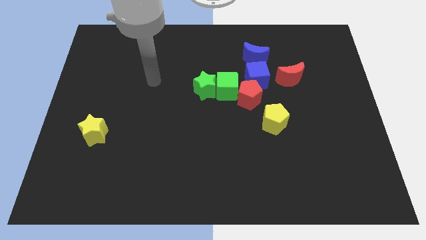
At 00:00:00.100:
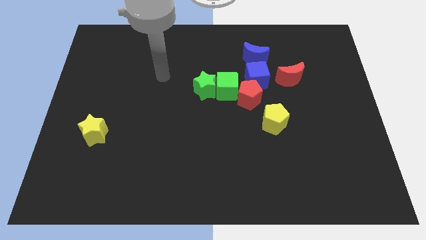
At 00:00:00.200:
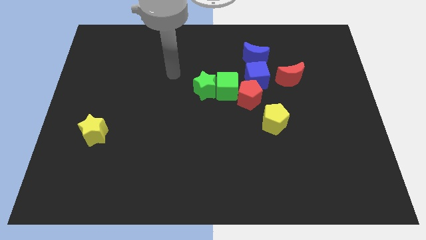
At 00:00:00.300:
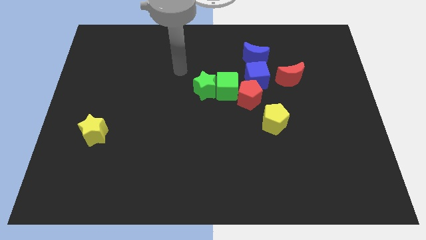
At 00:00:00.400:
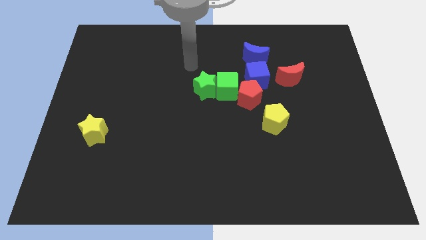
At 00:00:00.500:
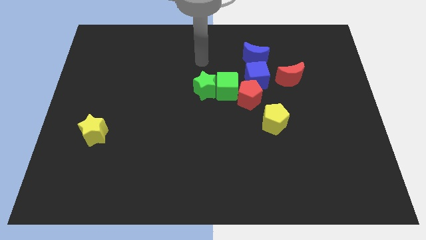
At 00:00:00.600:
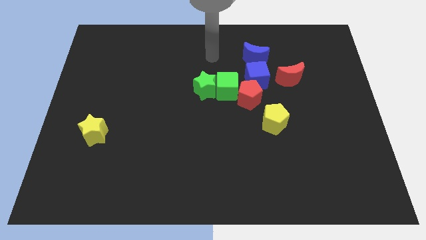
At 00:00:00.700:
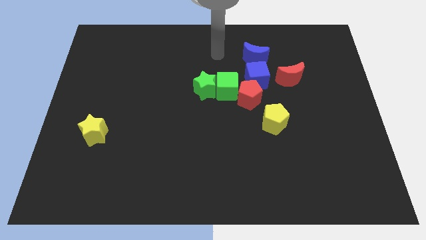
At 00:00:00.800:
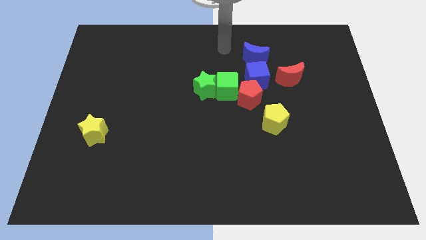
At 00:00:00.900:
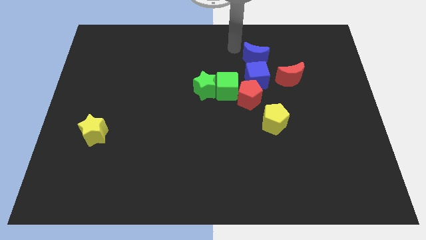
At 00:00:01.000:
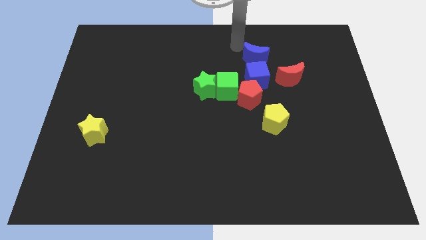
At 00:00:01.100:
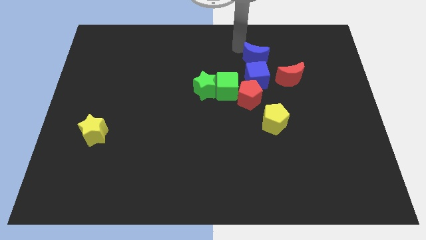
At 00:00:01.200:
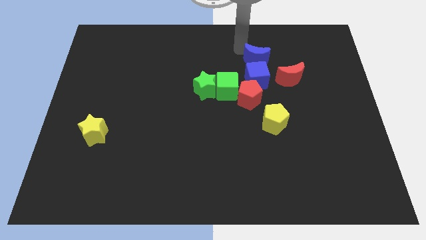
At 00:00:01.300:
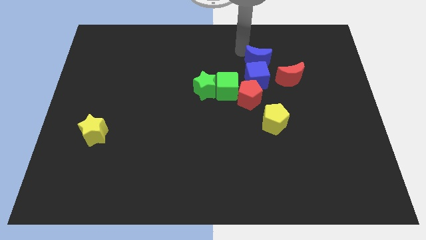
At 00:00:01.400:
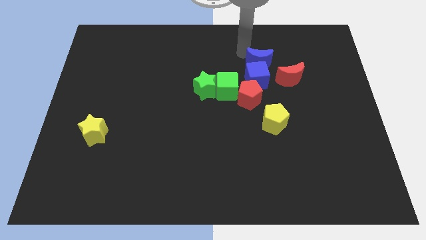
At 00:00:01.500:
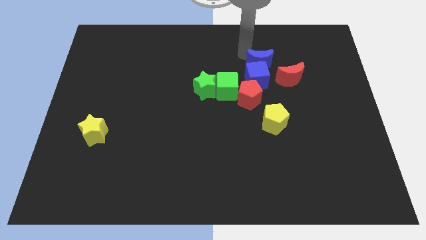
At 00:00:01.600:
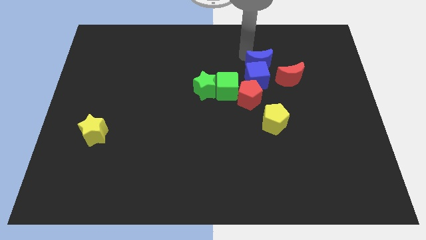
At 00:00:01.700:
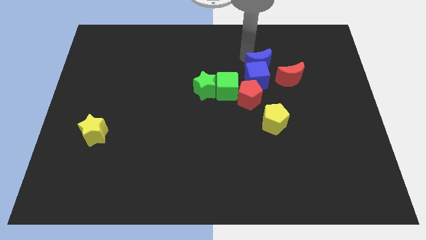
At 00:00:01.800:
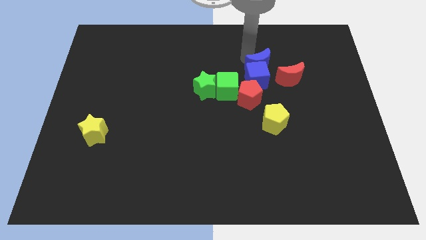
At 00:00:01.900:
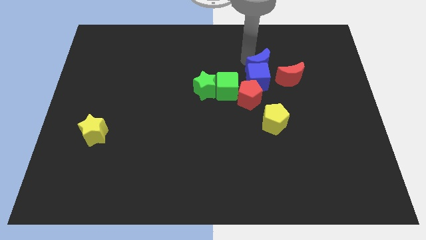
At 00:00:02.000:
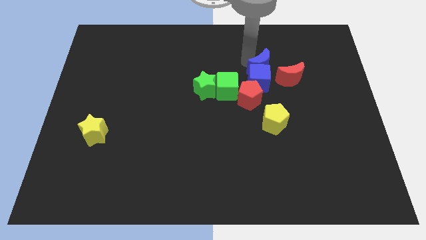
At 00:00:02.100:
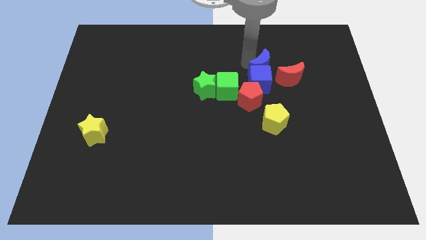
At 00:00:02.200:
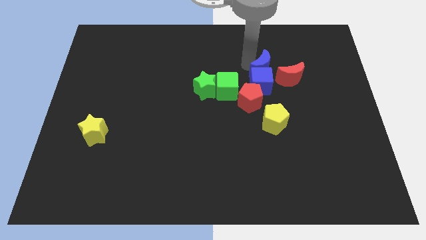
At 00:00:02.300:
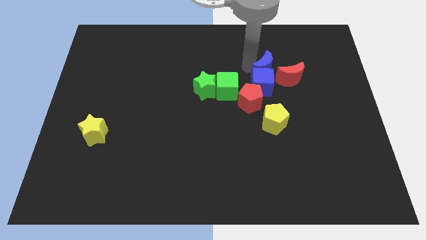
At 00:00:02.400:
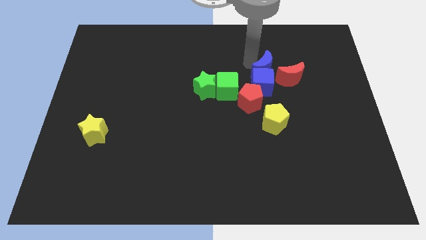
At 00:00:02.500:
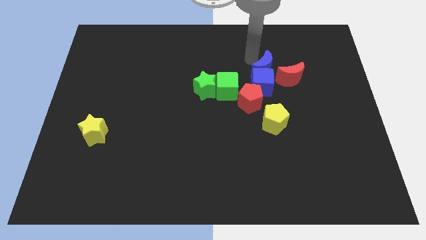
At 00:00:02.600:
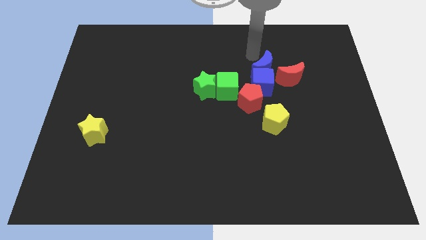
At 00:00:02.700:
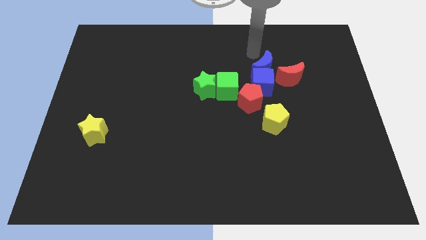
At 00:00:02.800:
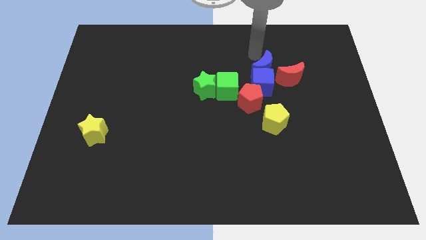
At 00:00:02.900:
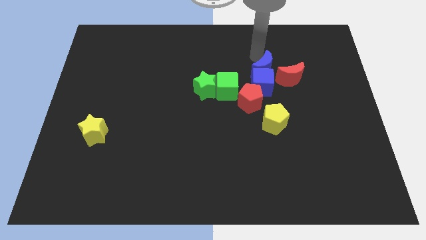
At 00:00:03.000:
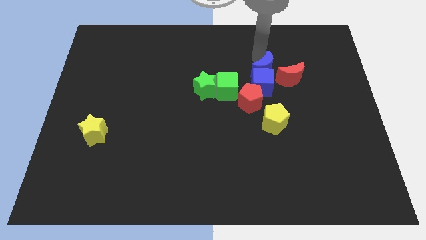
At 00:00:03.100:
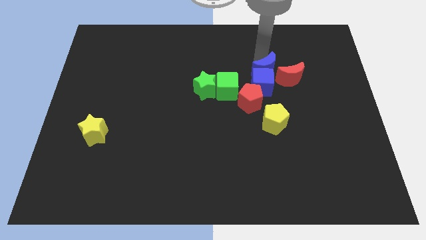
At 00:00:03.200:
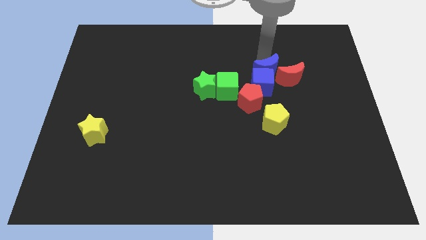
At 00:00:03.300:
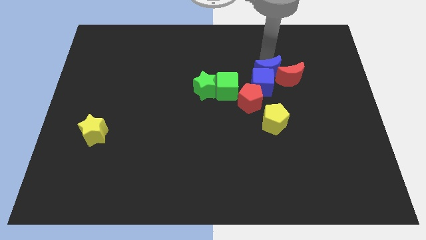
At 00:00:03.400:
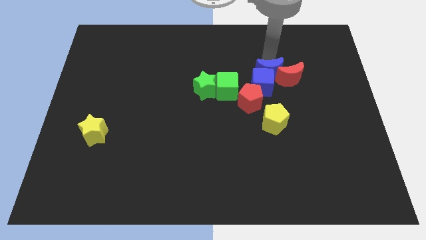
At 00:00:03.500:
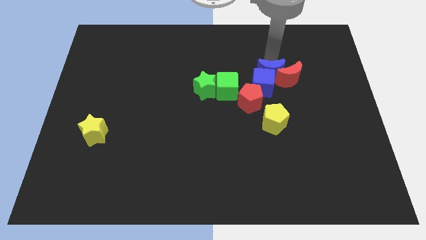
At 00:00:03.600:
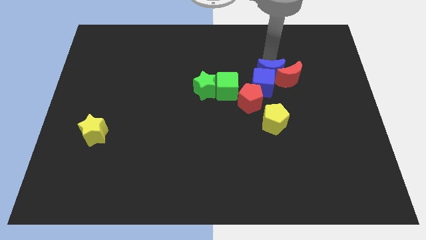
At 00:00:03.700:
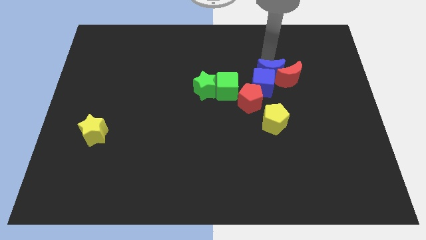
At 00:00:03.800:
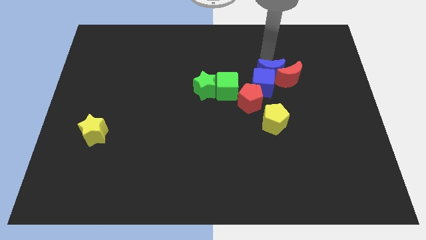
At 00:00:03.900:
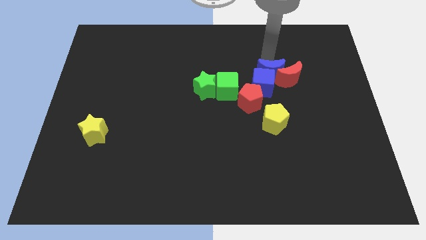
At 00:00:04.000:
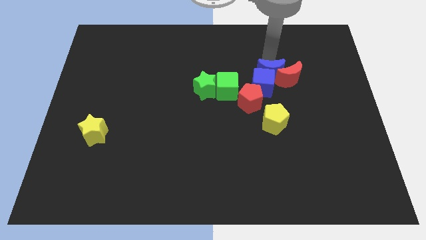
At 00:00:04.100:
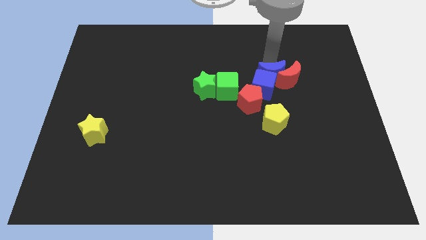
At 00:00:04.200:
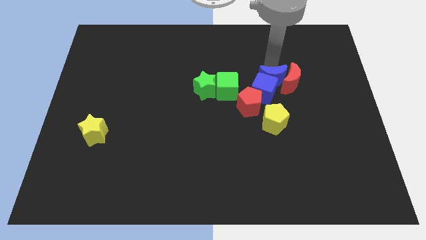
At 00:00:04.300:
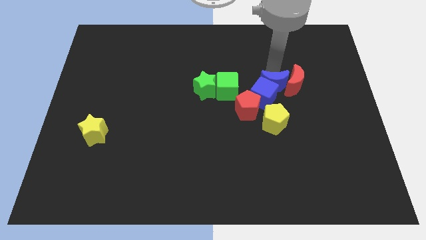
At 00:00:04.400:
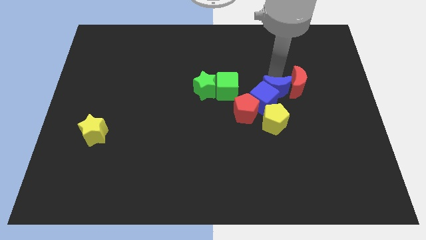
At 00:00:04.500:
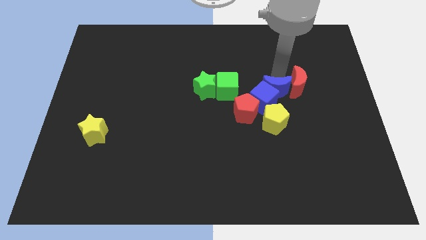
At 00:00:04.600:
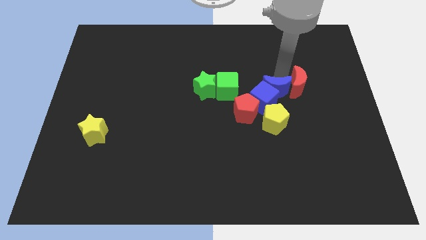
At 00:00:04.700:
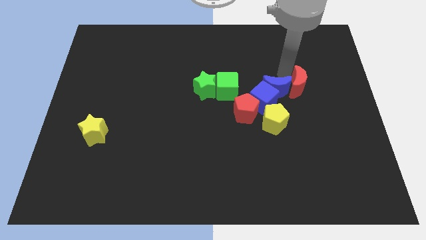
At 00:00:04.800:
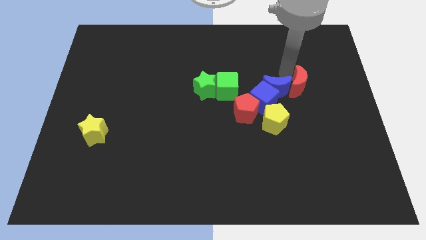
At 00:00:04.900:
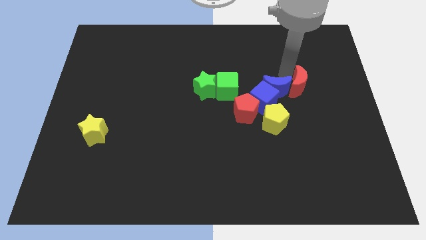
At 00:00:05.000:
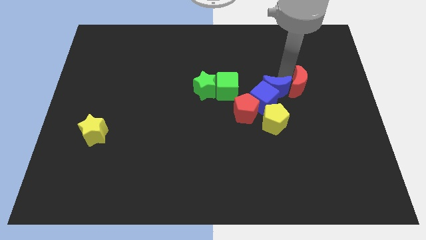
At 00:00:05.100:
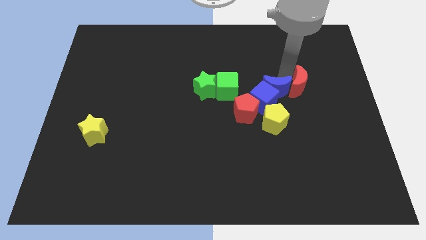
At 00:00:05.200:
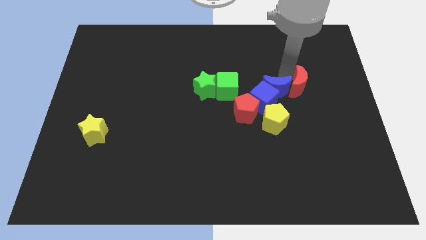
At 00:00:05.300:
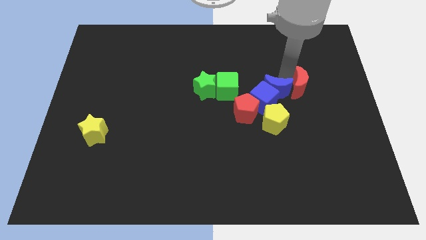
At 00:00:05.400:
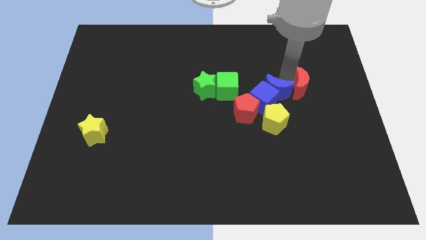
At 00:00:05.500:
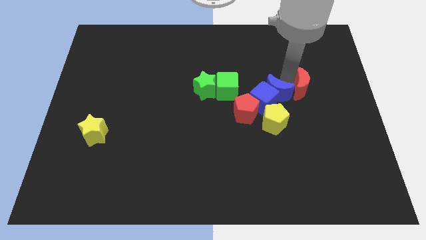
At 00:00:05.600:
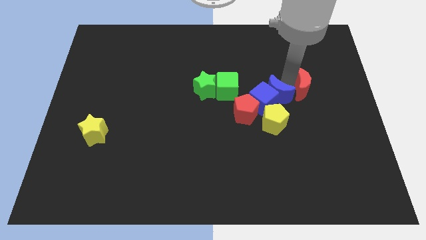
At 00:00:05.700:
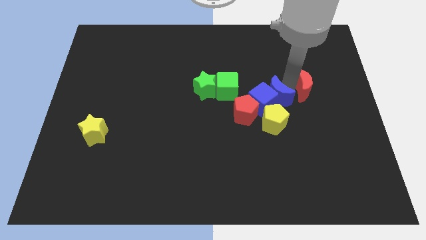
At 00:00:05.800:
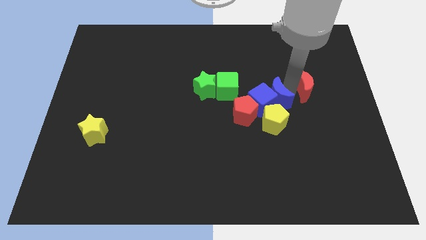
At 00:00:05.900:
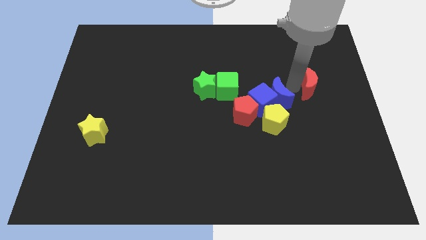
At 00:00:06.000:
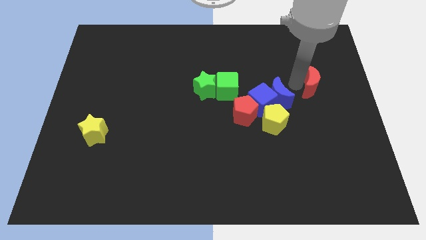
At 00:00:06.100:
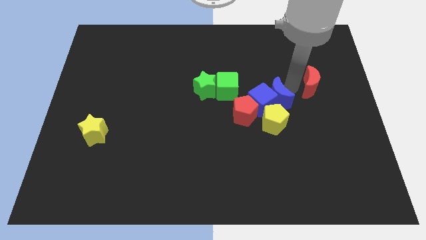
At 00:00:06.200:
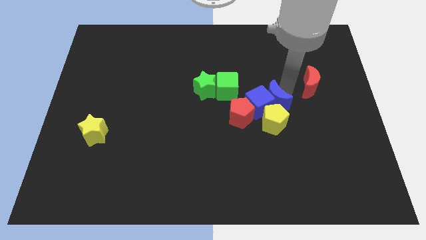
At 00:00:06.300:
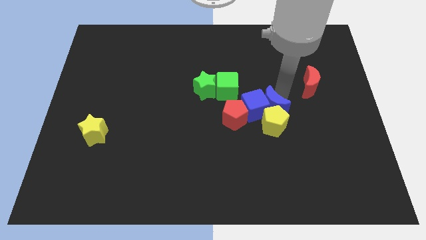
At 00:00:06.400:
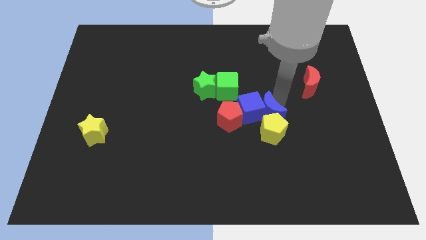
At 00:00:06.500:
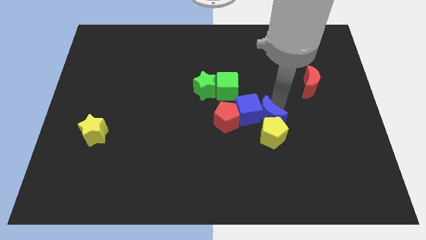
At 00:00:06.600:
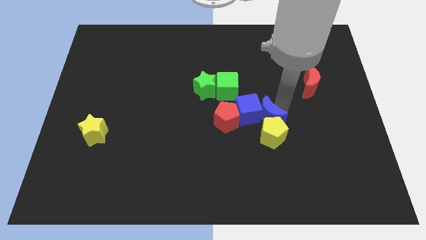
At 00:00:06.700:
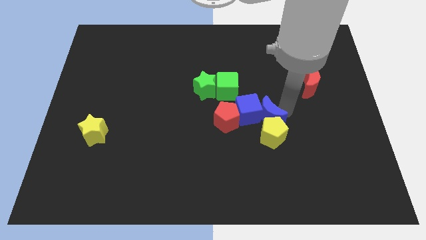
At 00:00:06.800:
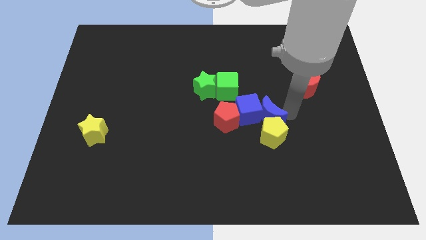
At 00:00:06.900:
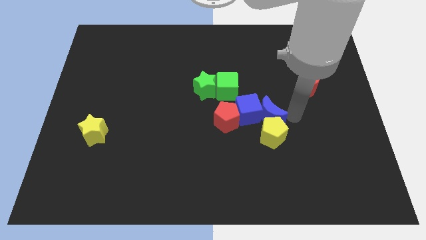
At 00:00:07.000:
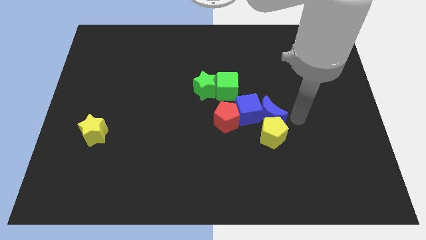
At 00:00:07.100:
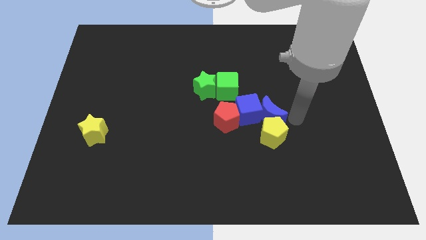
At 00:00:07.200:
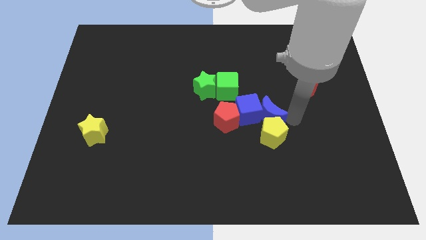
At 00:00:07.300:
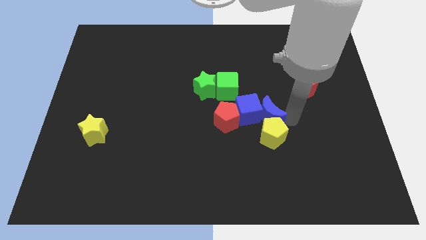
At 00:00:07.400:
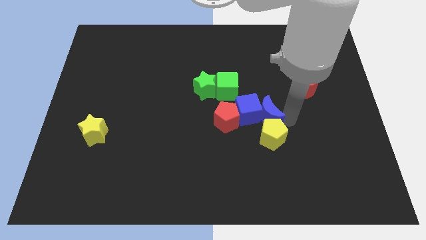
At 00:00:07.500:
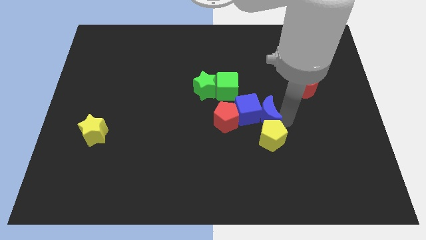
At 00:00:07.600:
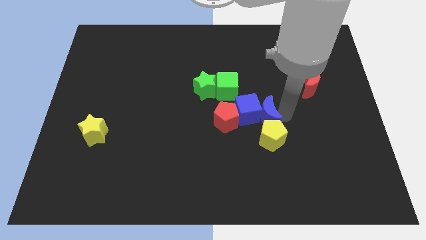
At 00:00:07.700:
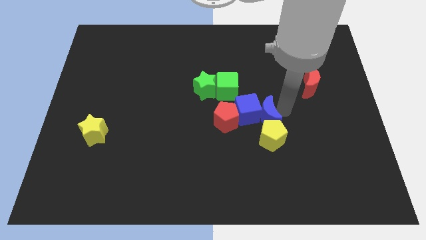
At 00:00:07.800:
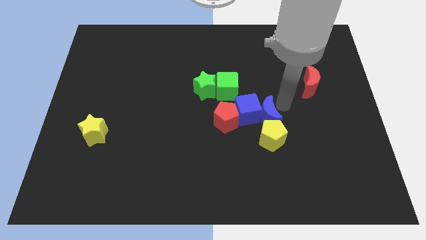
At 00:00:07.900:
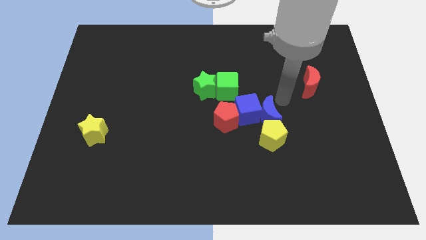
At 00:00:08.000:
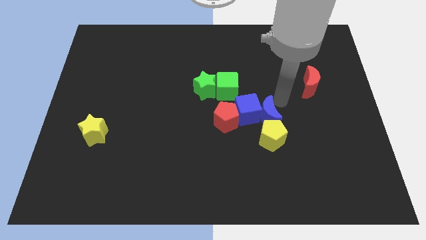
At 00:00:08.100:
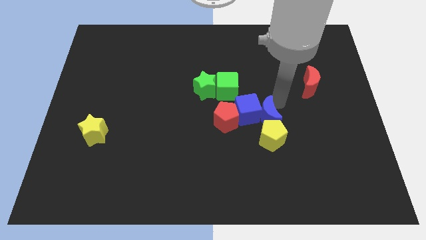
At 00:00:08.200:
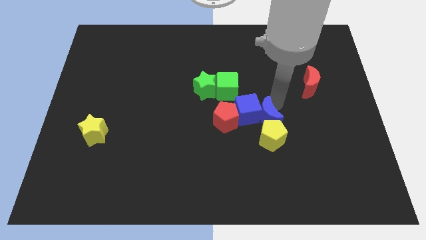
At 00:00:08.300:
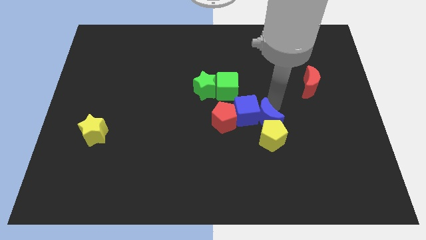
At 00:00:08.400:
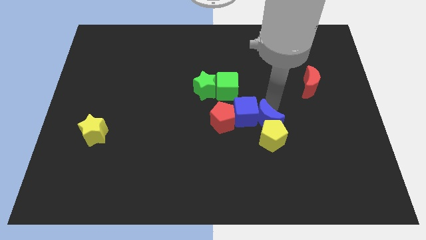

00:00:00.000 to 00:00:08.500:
move the blue moon down
